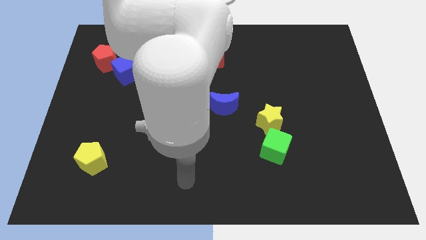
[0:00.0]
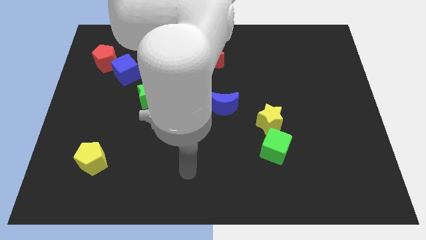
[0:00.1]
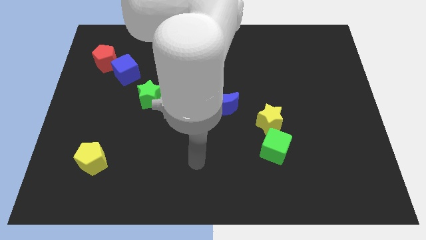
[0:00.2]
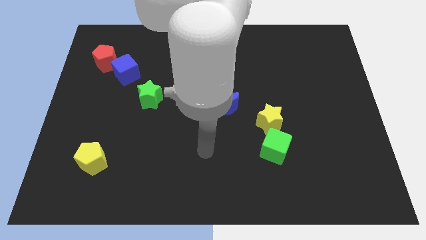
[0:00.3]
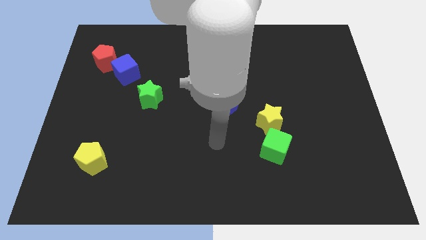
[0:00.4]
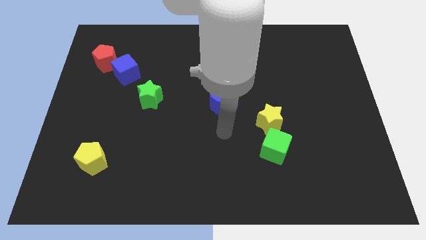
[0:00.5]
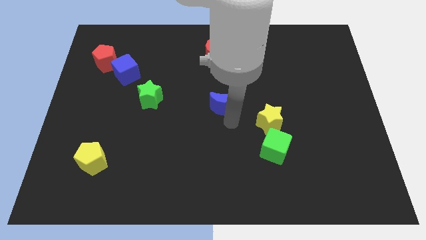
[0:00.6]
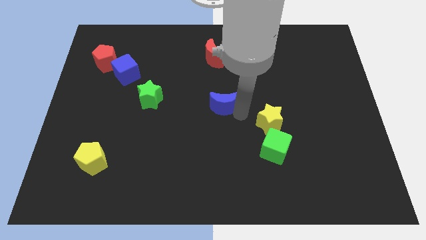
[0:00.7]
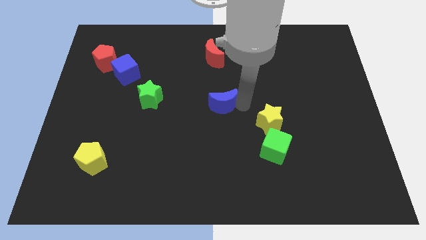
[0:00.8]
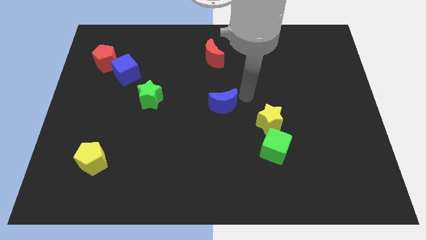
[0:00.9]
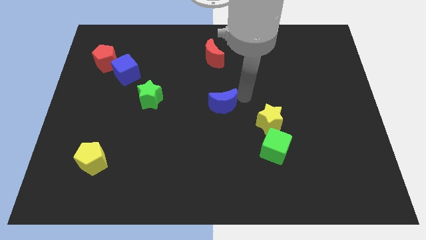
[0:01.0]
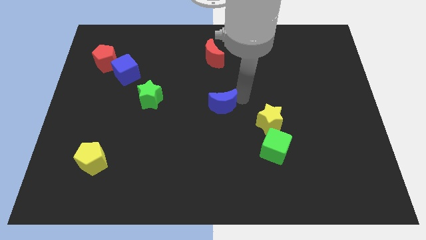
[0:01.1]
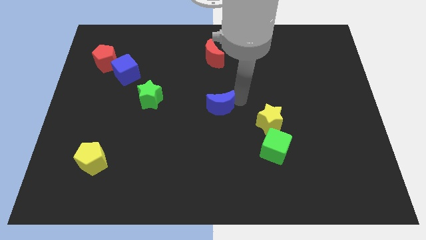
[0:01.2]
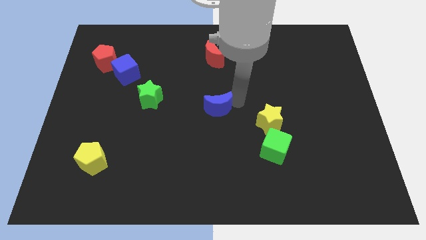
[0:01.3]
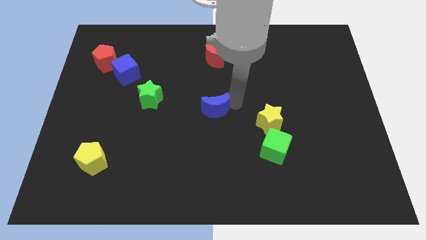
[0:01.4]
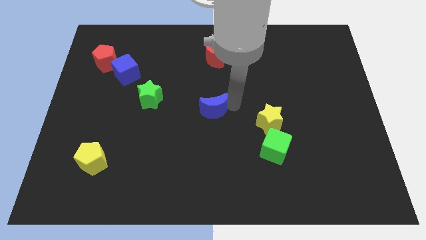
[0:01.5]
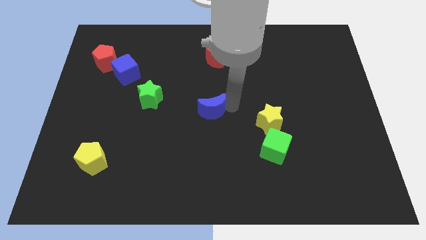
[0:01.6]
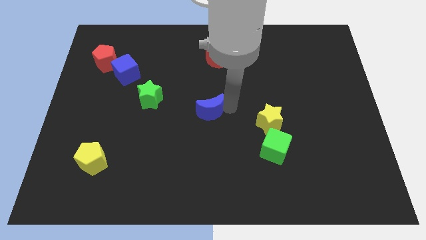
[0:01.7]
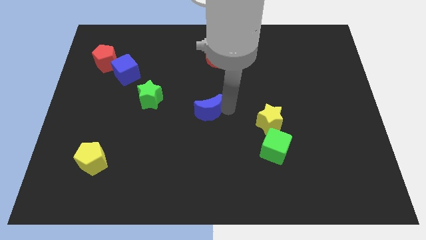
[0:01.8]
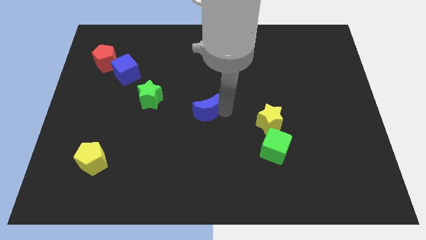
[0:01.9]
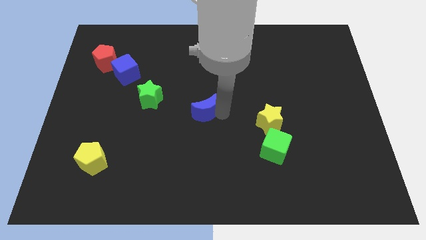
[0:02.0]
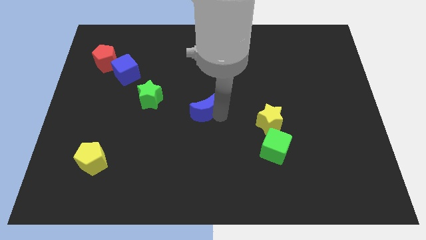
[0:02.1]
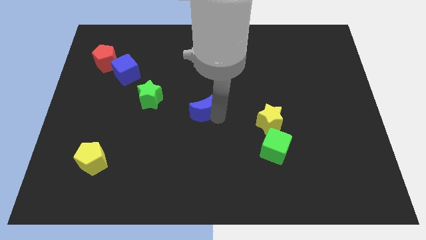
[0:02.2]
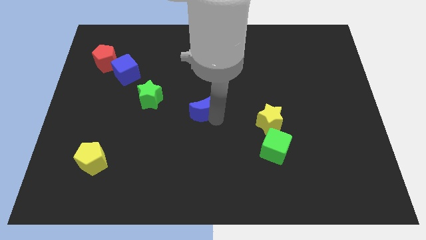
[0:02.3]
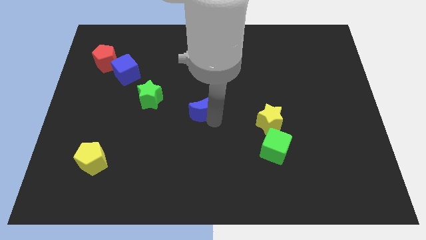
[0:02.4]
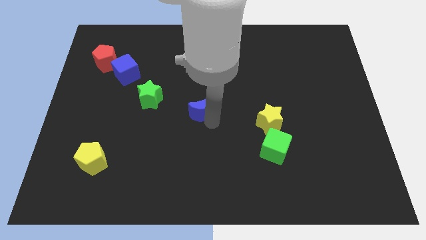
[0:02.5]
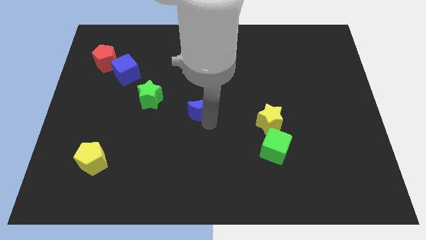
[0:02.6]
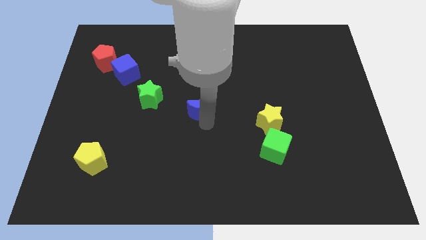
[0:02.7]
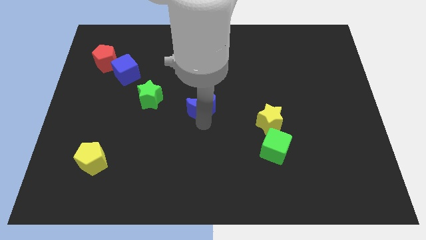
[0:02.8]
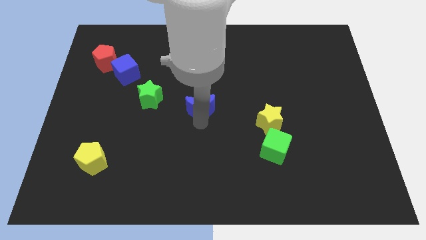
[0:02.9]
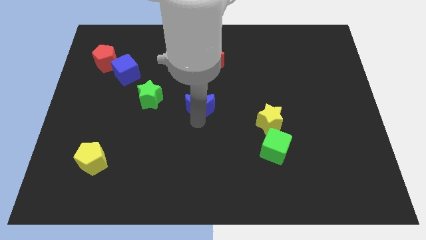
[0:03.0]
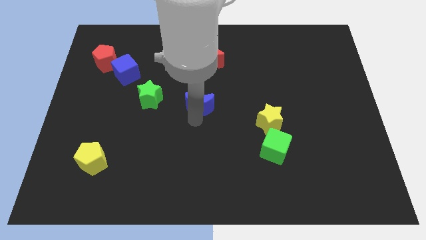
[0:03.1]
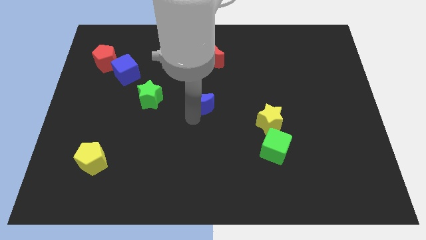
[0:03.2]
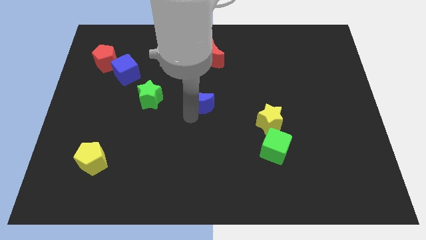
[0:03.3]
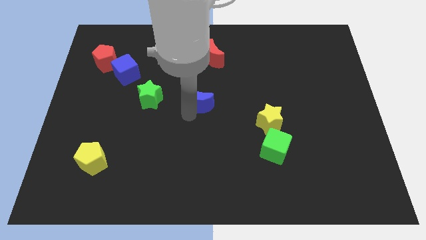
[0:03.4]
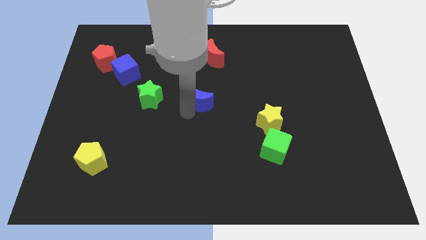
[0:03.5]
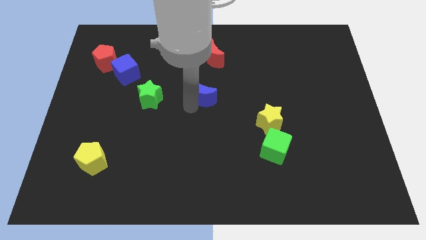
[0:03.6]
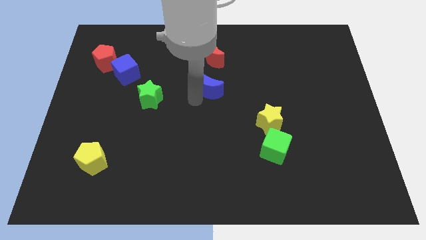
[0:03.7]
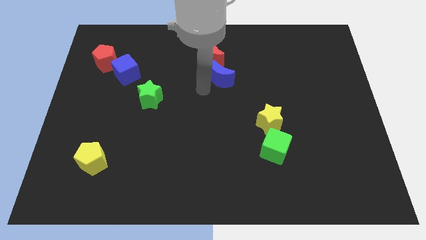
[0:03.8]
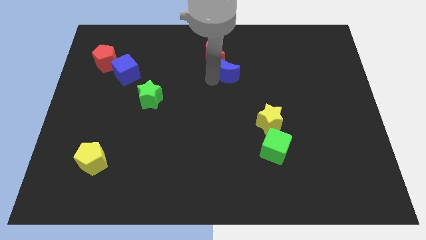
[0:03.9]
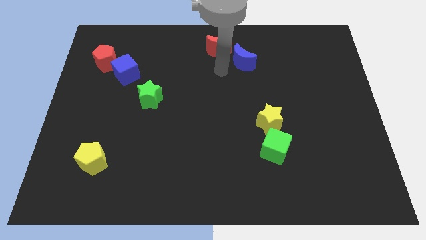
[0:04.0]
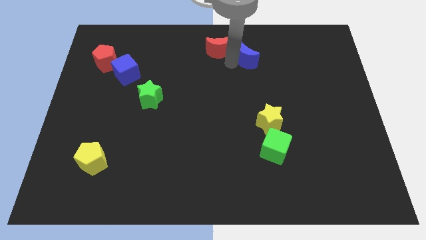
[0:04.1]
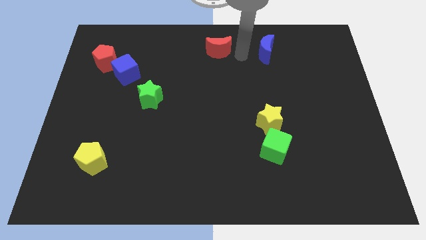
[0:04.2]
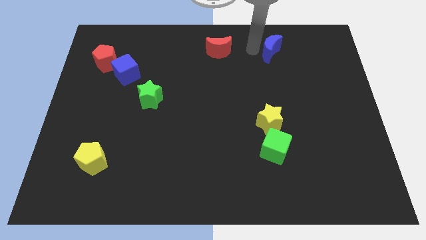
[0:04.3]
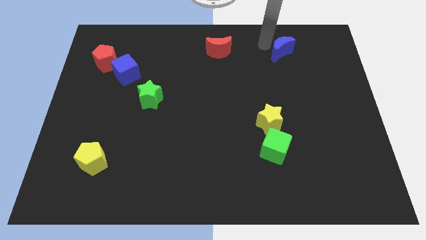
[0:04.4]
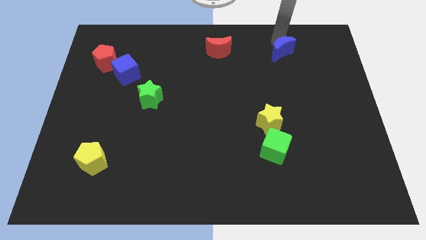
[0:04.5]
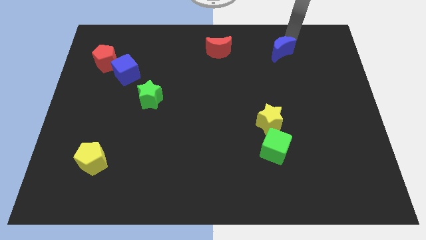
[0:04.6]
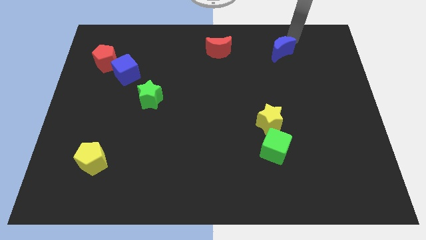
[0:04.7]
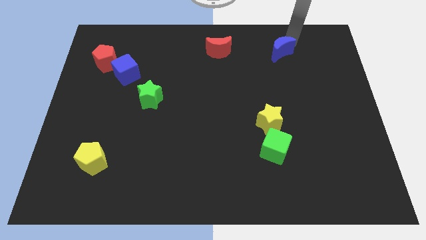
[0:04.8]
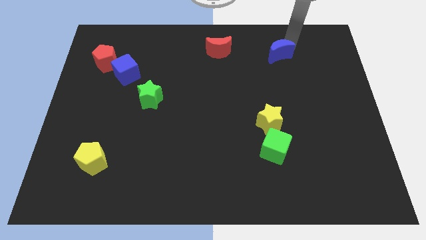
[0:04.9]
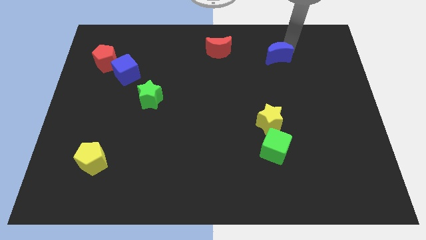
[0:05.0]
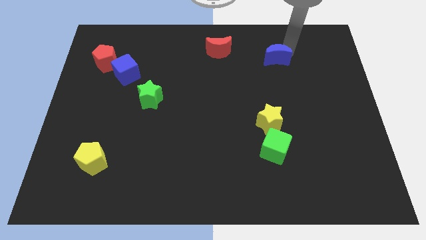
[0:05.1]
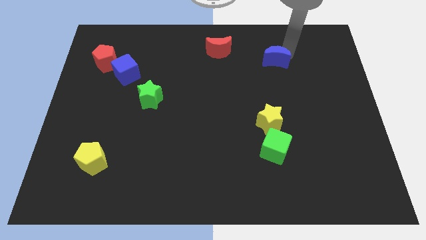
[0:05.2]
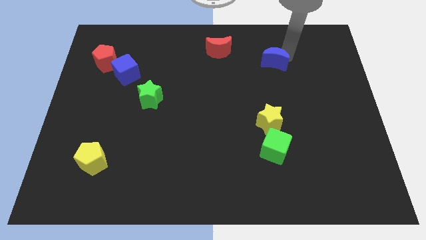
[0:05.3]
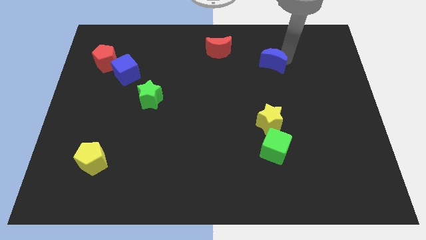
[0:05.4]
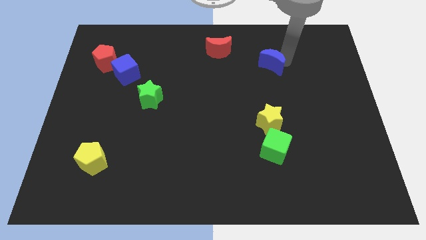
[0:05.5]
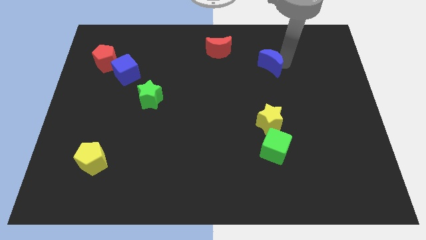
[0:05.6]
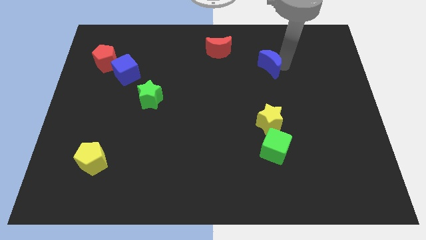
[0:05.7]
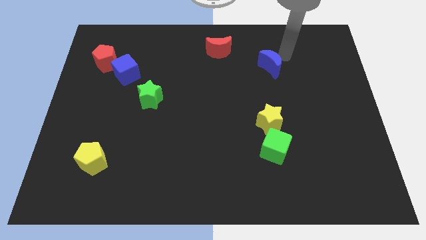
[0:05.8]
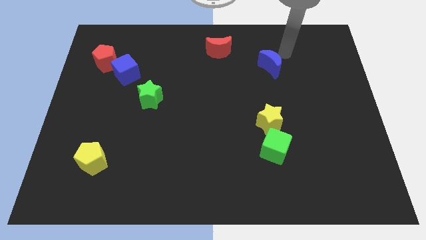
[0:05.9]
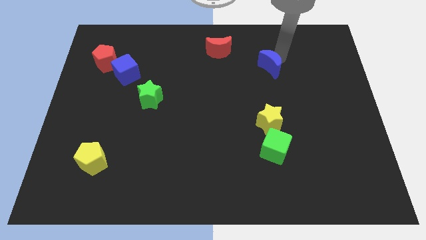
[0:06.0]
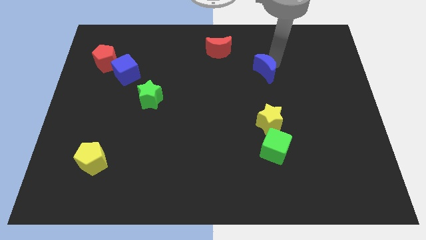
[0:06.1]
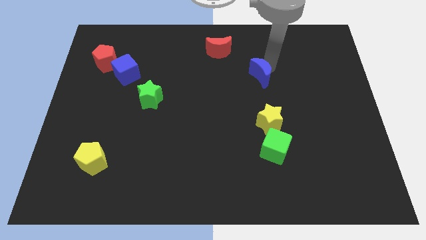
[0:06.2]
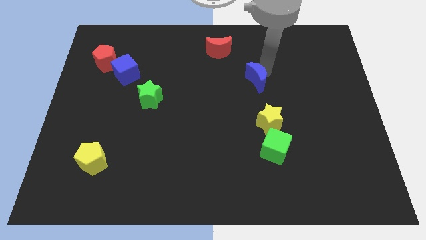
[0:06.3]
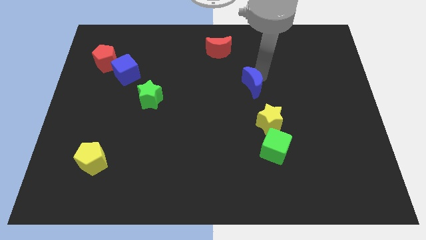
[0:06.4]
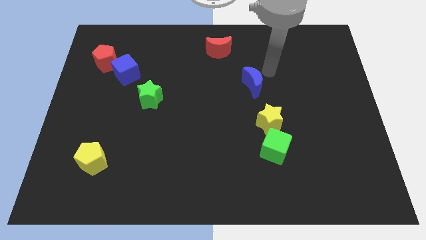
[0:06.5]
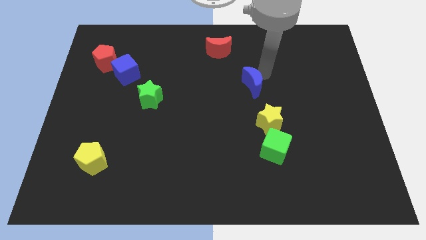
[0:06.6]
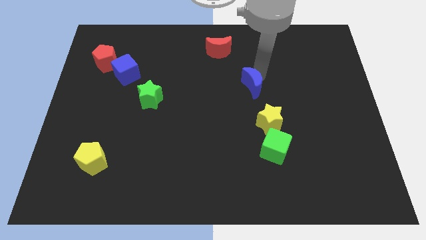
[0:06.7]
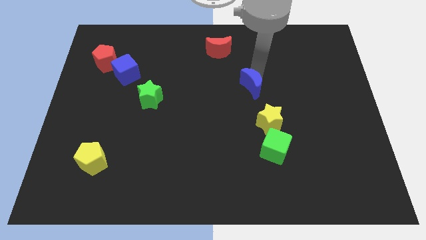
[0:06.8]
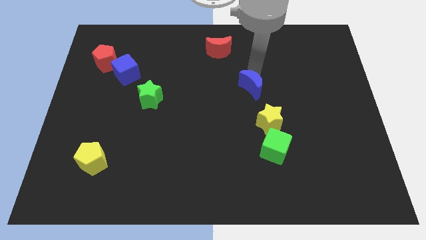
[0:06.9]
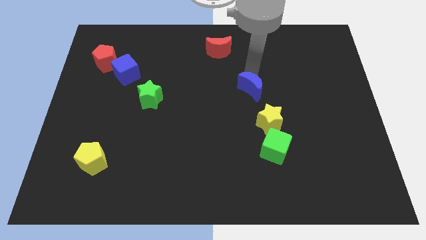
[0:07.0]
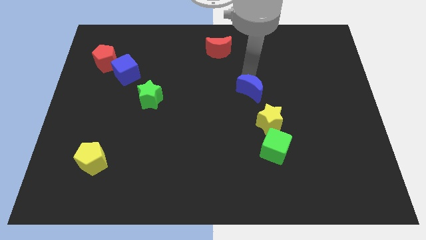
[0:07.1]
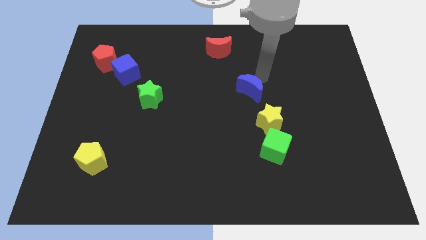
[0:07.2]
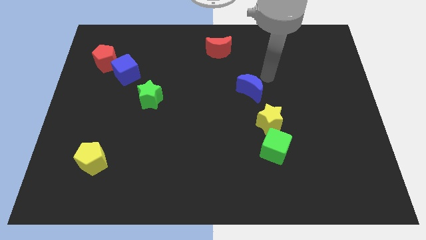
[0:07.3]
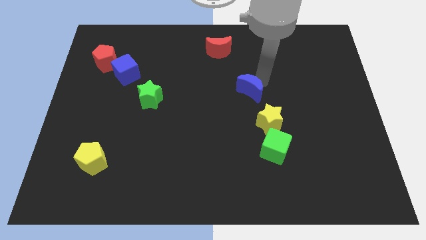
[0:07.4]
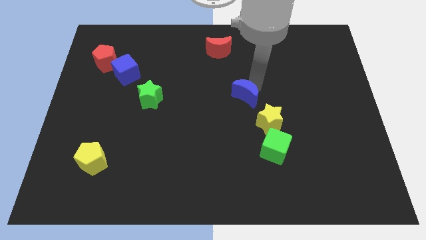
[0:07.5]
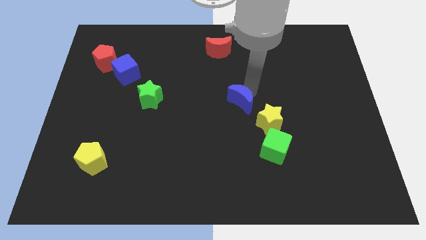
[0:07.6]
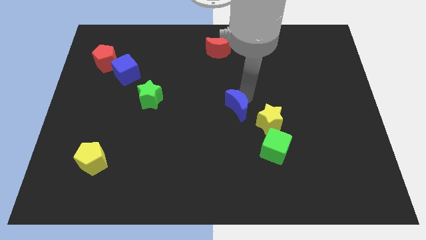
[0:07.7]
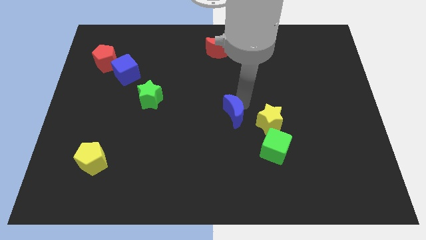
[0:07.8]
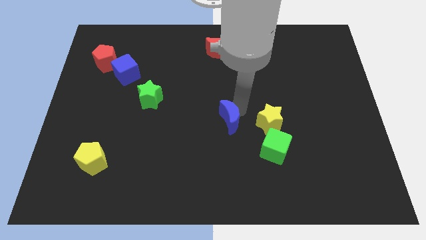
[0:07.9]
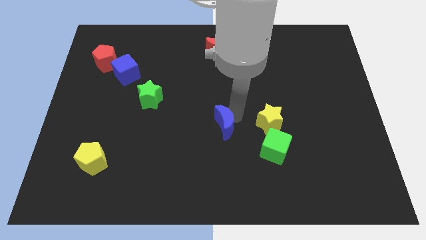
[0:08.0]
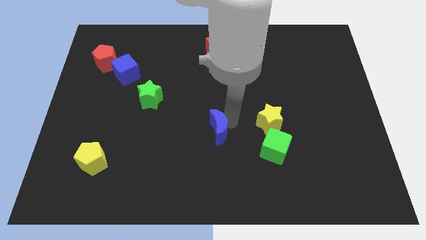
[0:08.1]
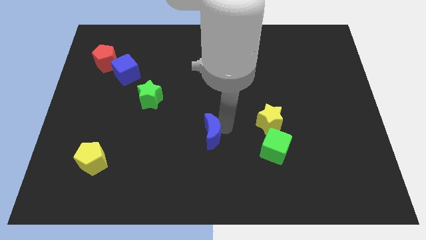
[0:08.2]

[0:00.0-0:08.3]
slightly push the blue moon down and then to the left
